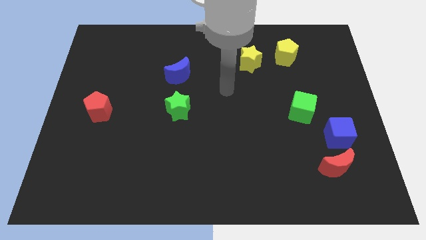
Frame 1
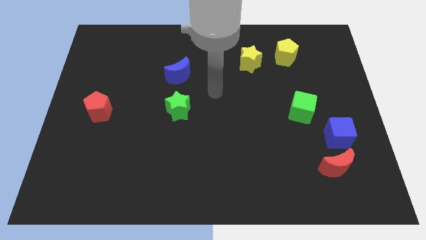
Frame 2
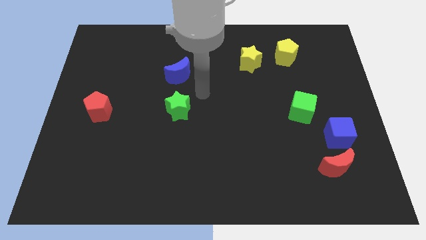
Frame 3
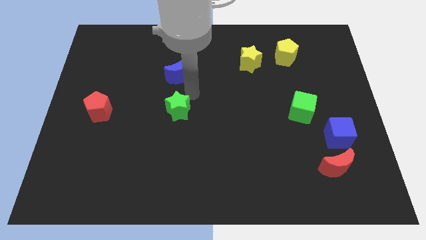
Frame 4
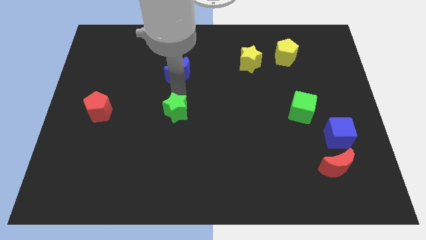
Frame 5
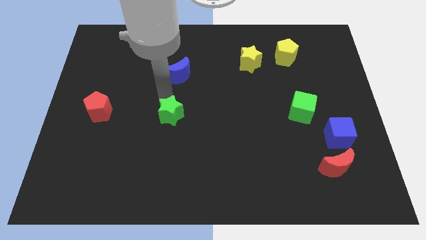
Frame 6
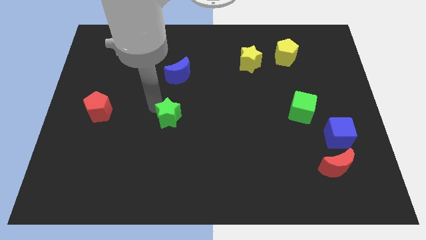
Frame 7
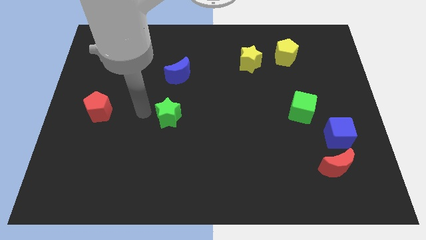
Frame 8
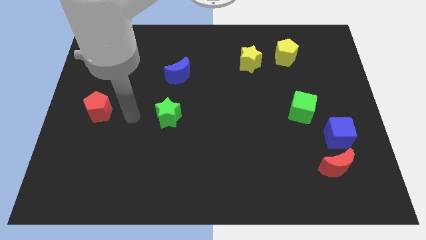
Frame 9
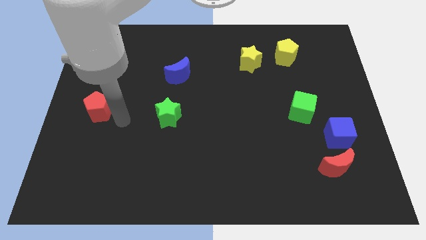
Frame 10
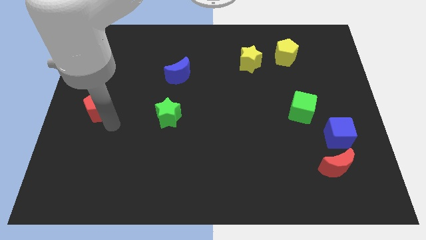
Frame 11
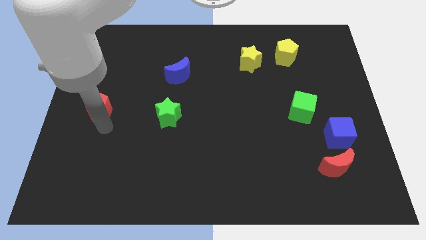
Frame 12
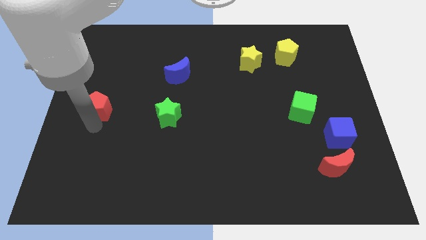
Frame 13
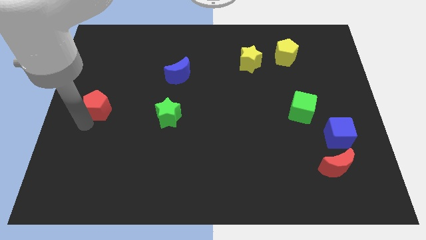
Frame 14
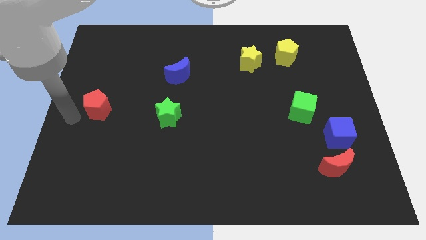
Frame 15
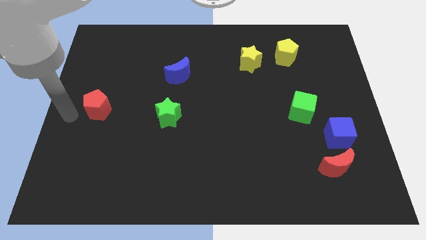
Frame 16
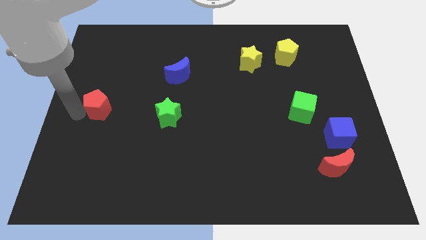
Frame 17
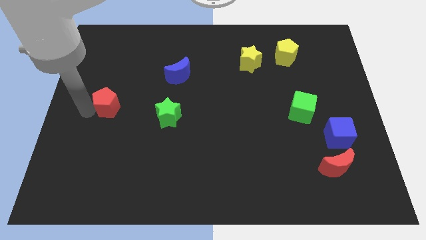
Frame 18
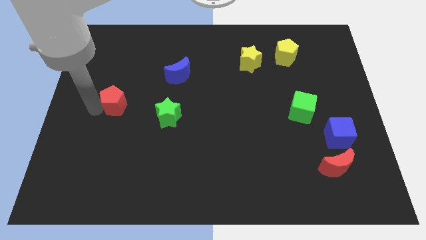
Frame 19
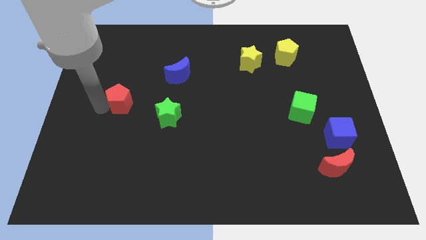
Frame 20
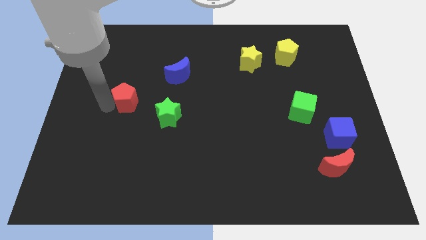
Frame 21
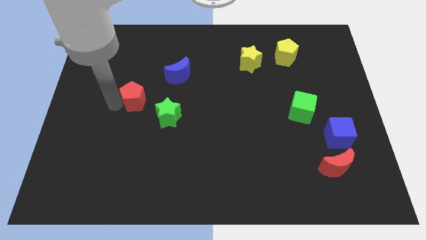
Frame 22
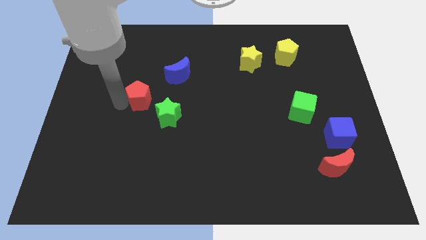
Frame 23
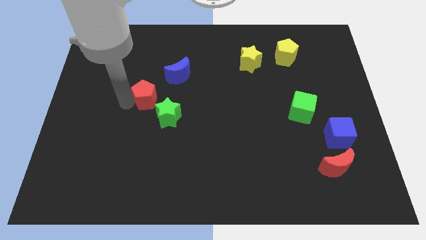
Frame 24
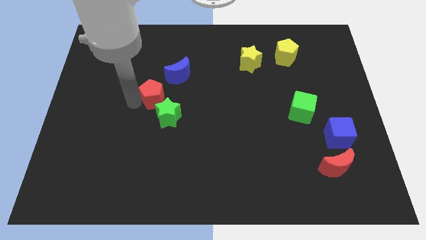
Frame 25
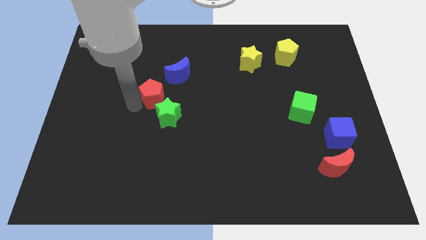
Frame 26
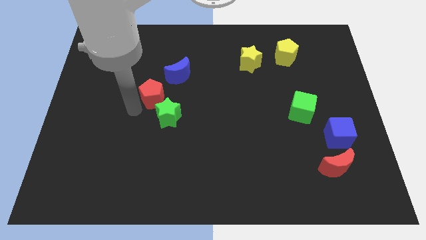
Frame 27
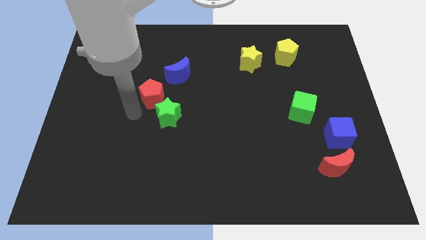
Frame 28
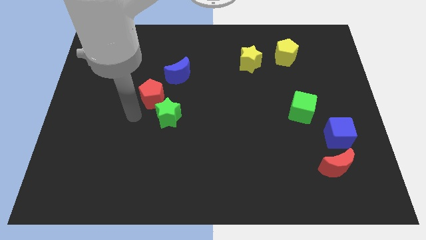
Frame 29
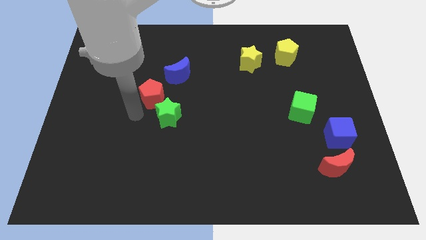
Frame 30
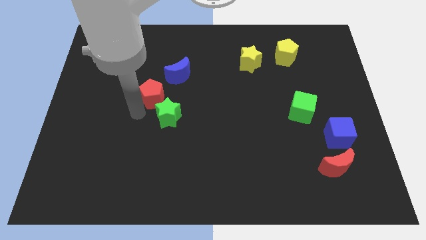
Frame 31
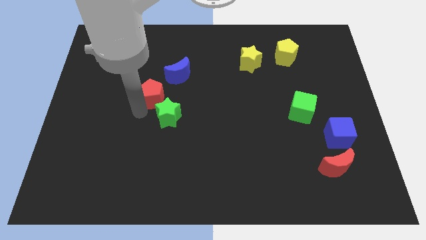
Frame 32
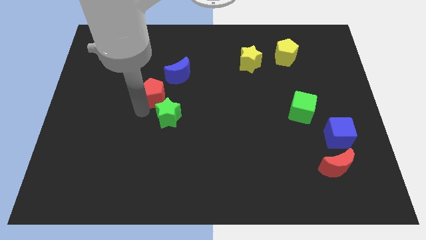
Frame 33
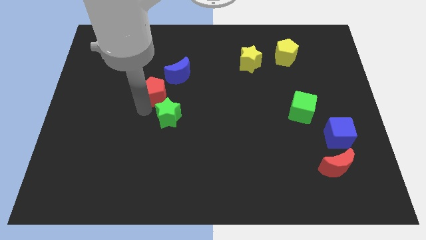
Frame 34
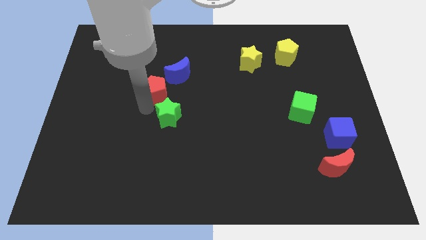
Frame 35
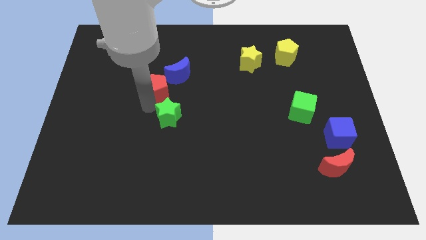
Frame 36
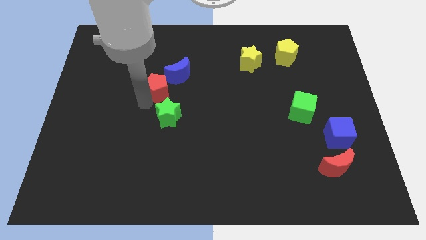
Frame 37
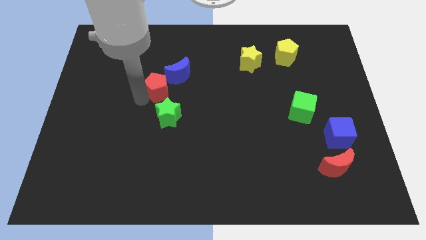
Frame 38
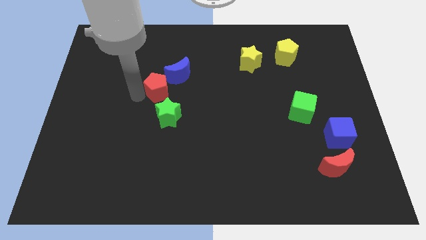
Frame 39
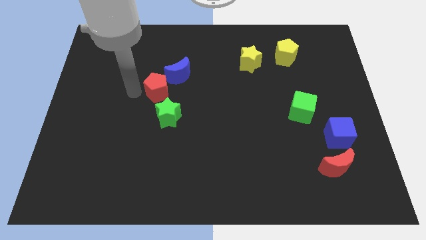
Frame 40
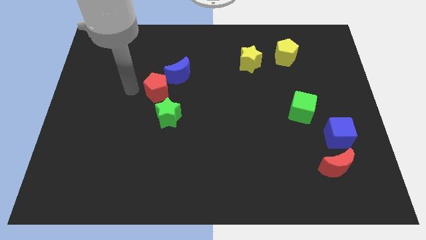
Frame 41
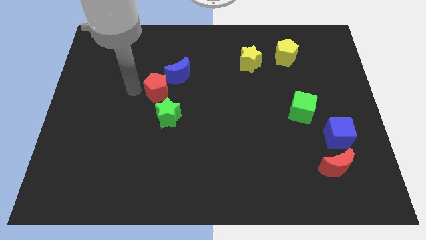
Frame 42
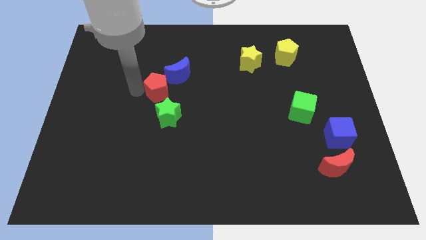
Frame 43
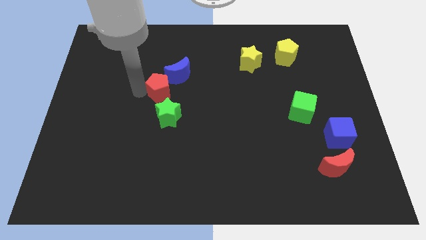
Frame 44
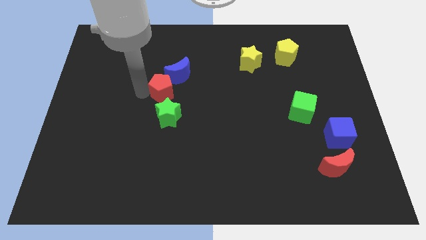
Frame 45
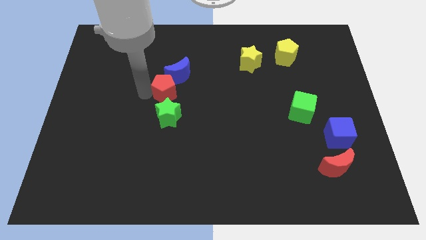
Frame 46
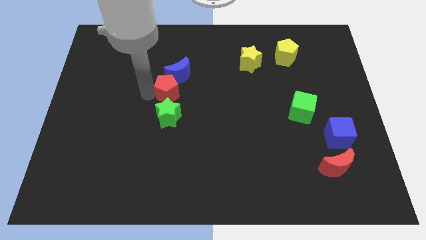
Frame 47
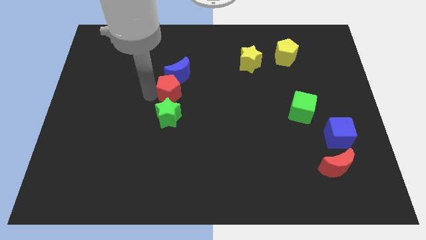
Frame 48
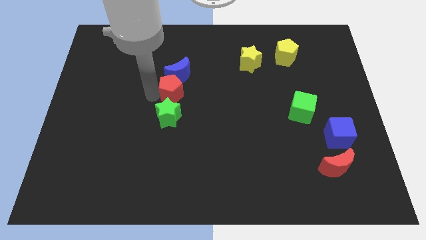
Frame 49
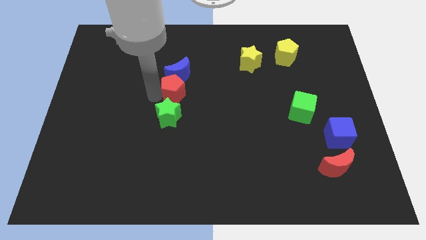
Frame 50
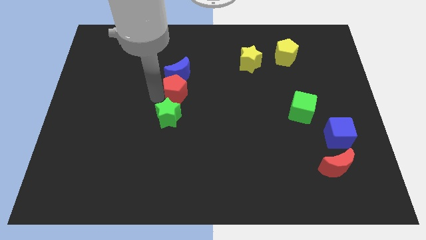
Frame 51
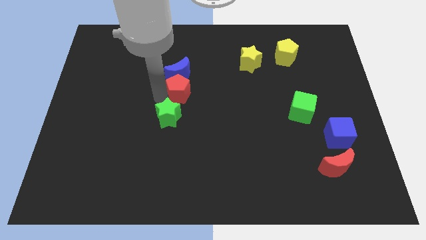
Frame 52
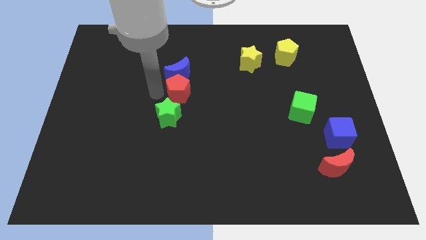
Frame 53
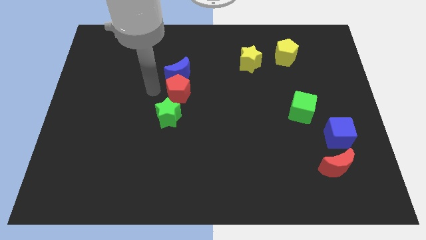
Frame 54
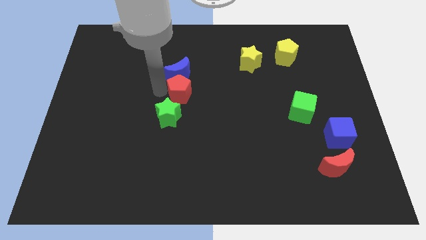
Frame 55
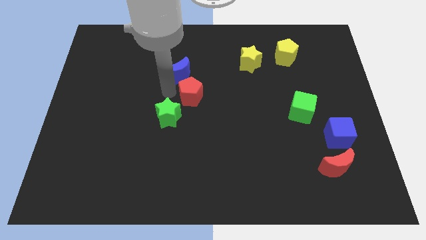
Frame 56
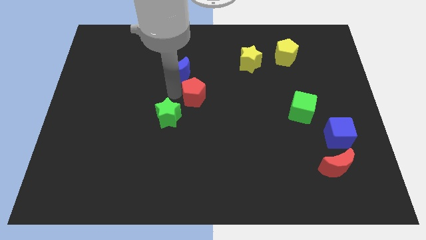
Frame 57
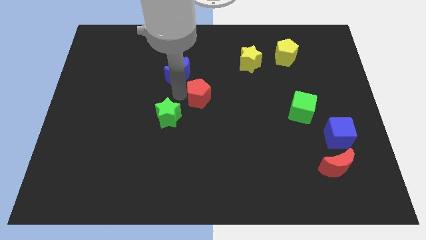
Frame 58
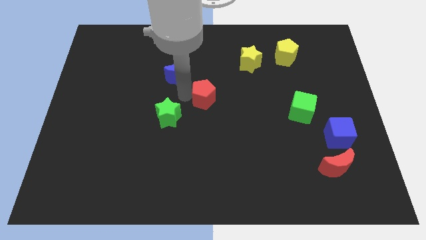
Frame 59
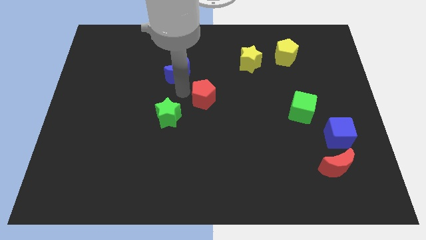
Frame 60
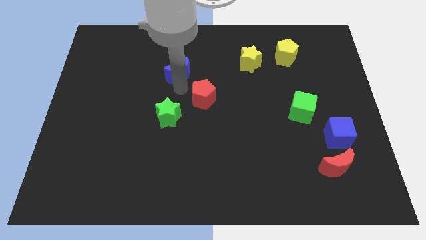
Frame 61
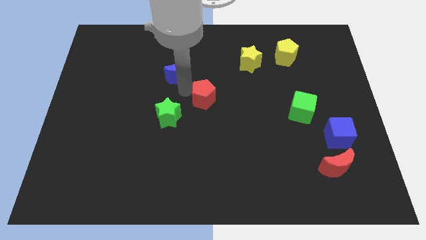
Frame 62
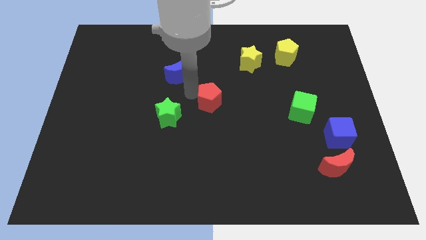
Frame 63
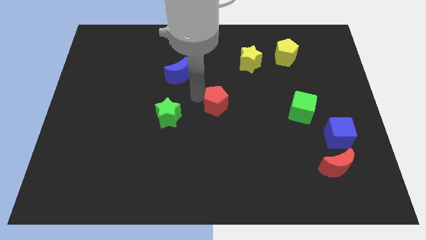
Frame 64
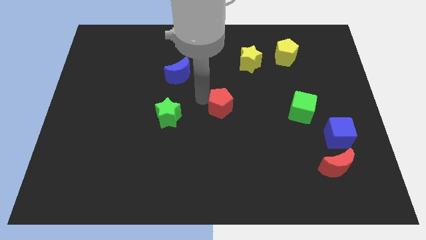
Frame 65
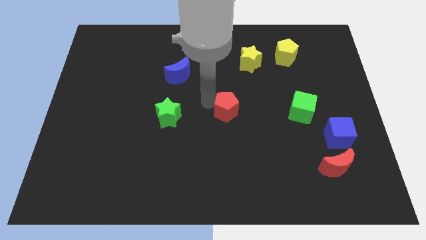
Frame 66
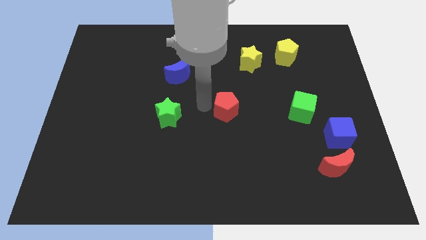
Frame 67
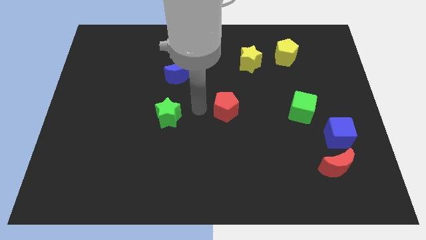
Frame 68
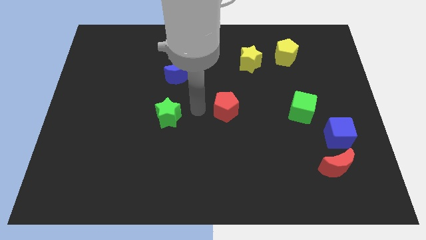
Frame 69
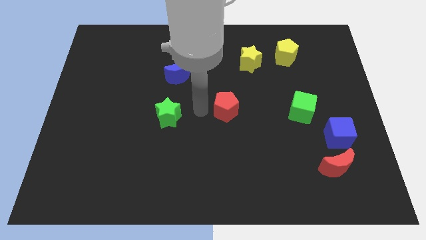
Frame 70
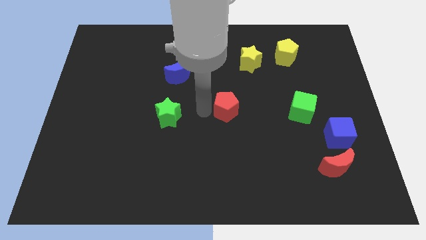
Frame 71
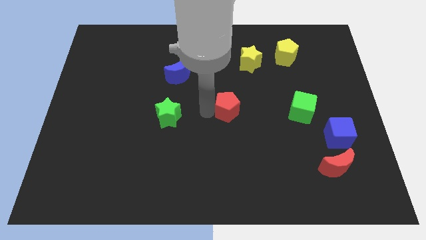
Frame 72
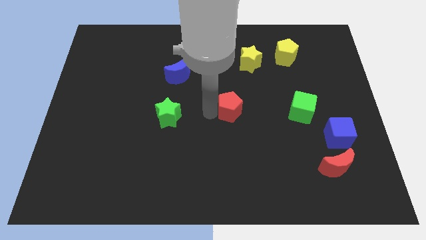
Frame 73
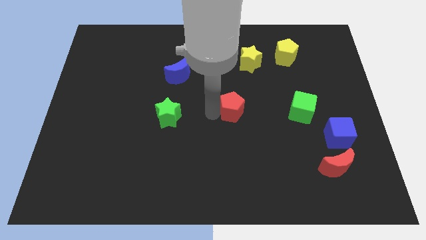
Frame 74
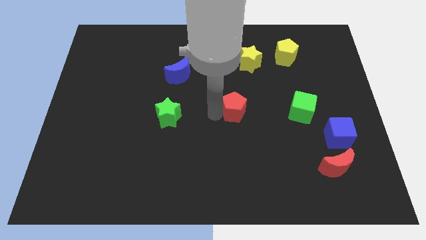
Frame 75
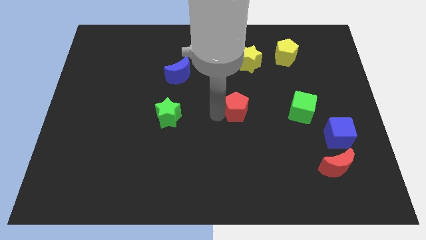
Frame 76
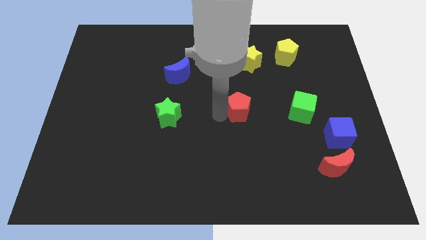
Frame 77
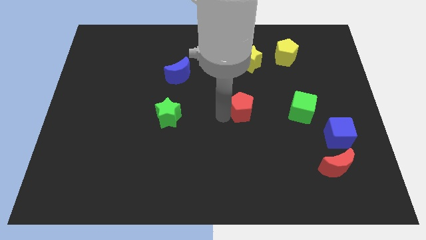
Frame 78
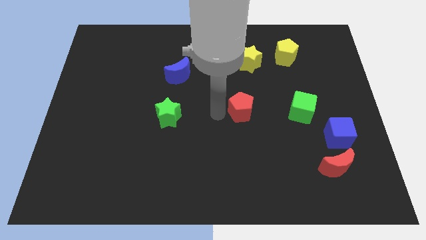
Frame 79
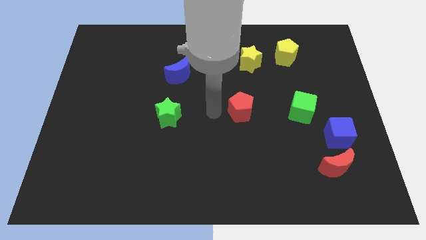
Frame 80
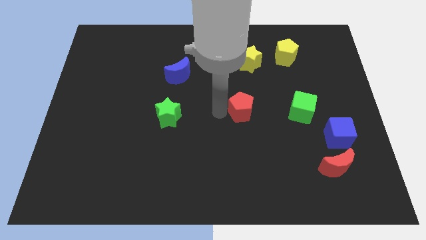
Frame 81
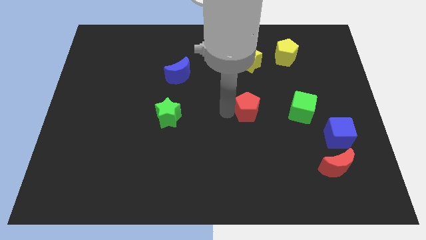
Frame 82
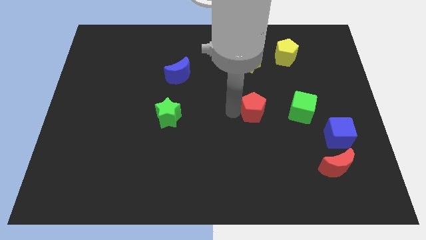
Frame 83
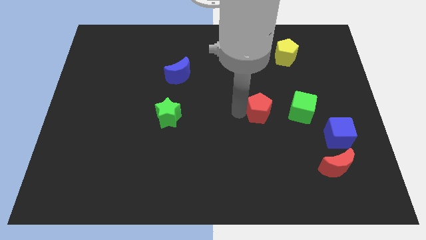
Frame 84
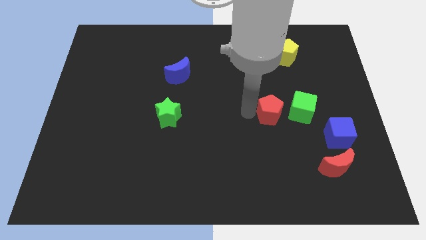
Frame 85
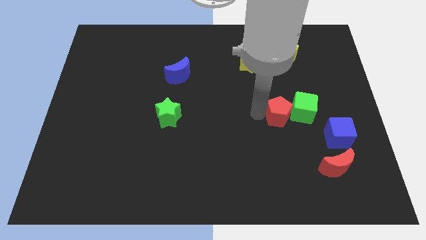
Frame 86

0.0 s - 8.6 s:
put the red pentagon close to the green cube
